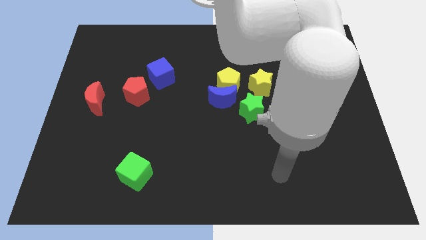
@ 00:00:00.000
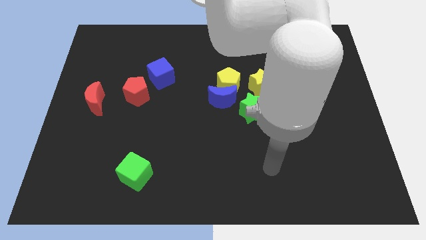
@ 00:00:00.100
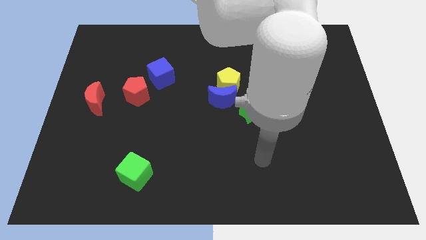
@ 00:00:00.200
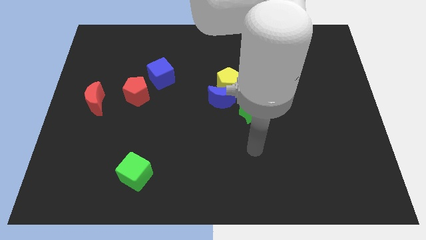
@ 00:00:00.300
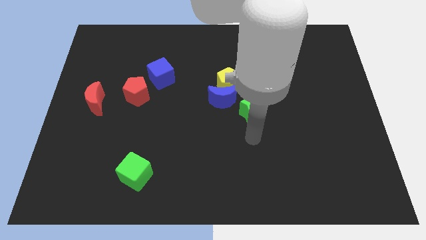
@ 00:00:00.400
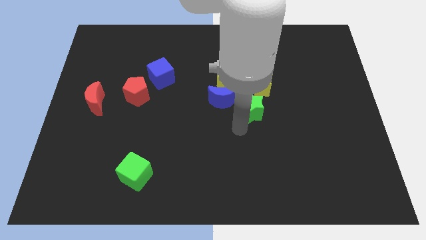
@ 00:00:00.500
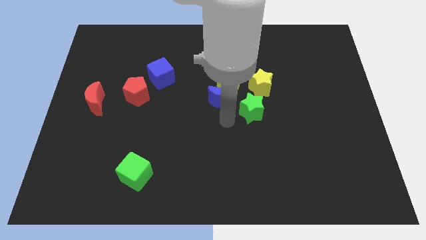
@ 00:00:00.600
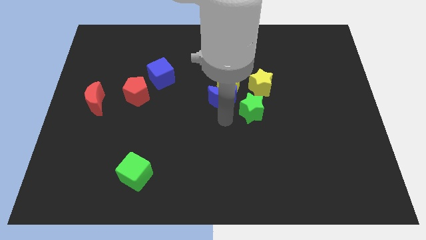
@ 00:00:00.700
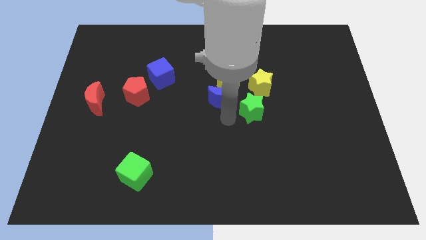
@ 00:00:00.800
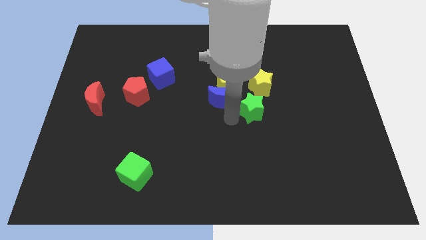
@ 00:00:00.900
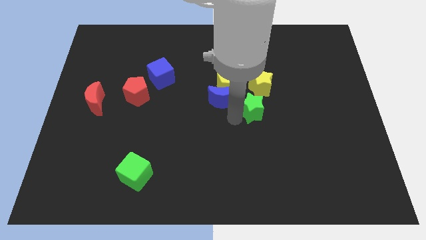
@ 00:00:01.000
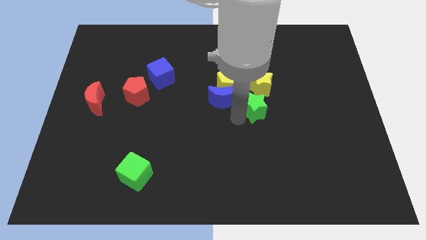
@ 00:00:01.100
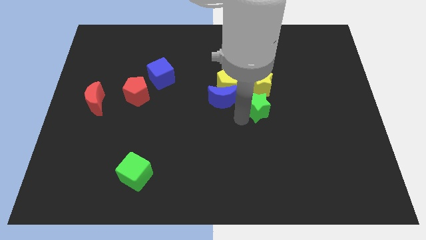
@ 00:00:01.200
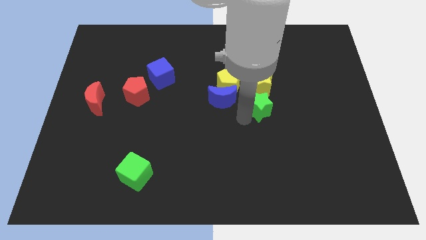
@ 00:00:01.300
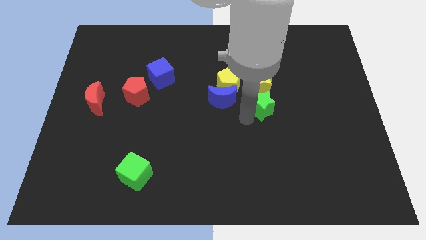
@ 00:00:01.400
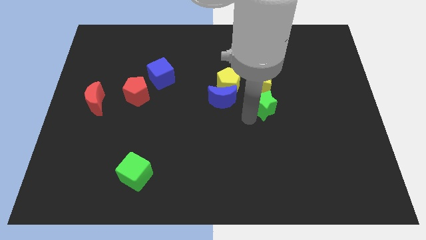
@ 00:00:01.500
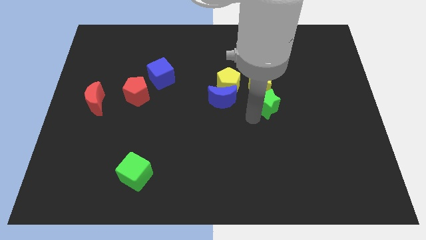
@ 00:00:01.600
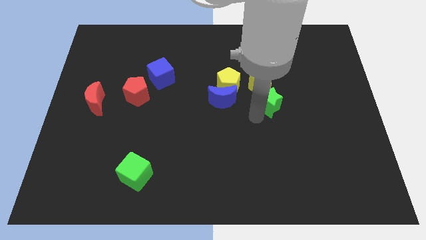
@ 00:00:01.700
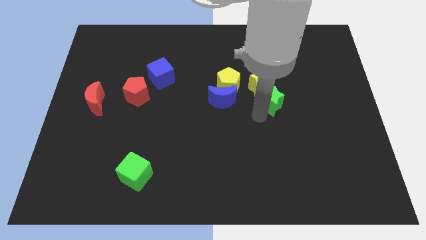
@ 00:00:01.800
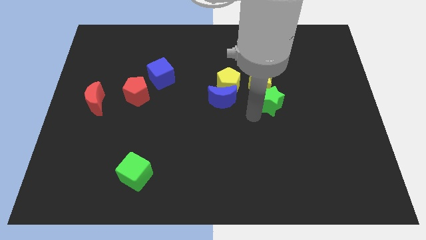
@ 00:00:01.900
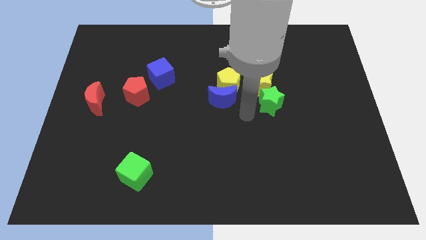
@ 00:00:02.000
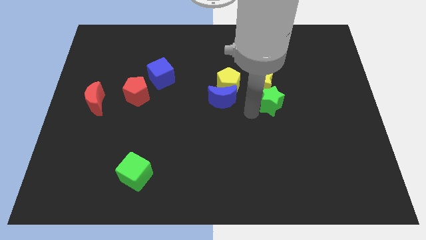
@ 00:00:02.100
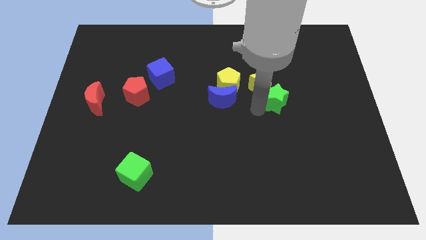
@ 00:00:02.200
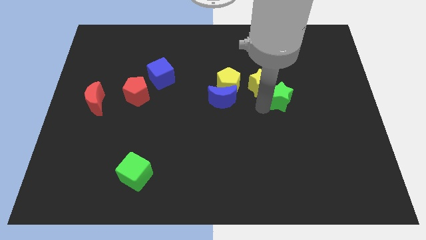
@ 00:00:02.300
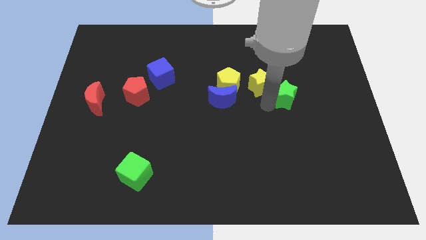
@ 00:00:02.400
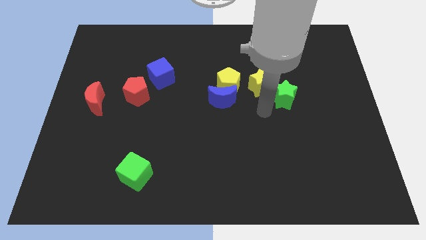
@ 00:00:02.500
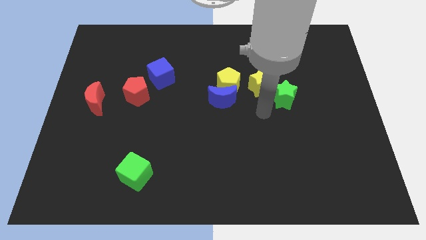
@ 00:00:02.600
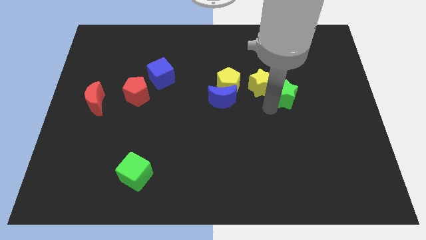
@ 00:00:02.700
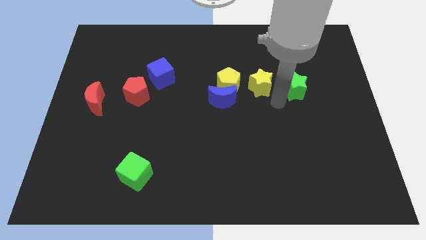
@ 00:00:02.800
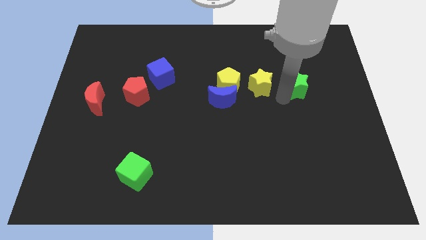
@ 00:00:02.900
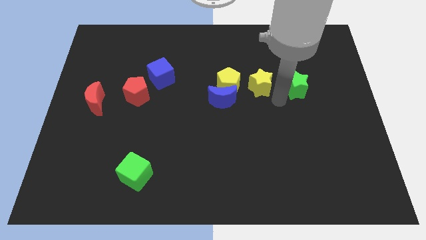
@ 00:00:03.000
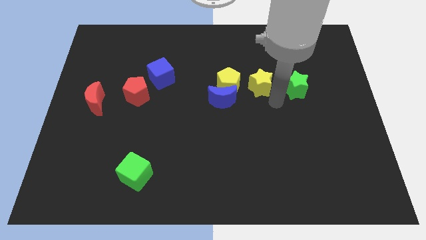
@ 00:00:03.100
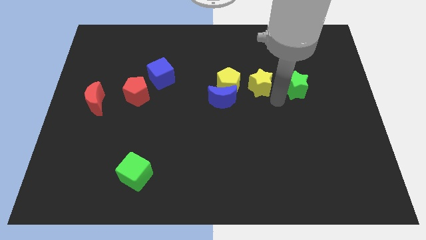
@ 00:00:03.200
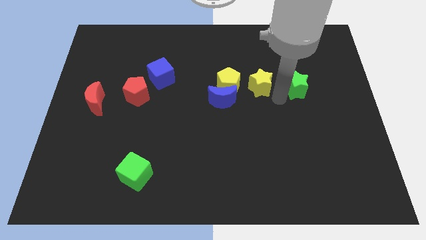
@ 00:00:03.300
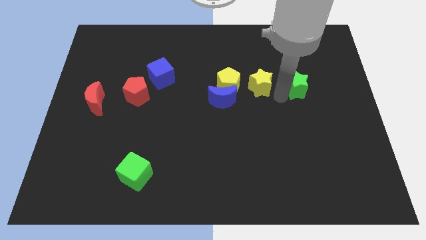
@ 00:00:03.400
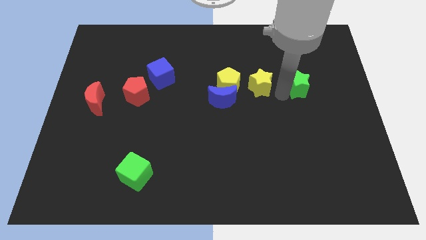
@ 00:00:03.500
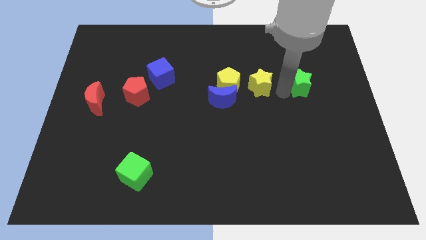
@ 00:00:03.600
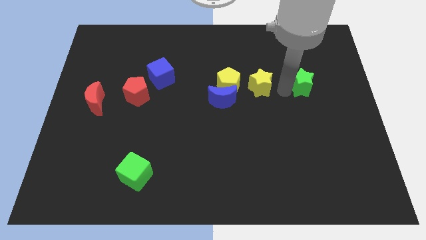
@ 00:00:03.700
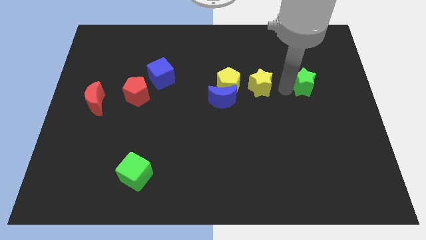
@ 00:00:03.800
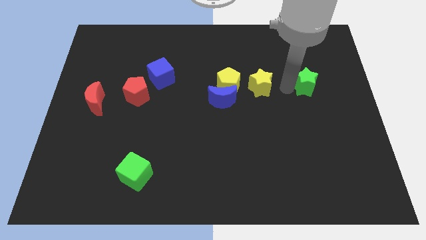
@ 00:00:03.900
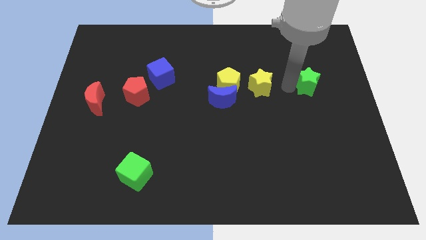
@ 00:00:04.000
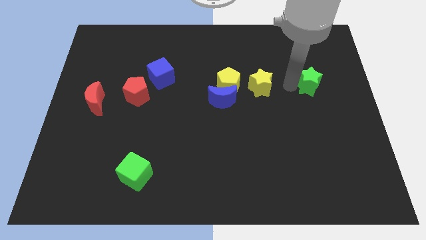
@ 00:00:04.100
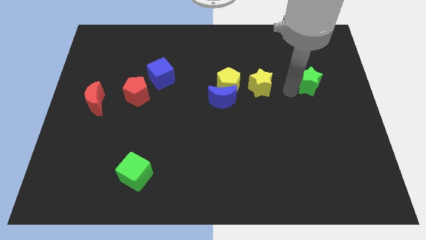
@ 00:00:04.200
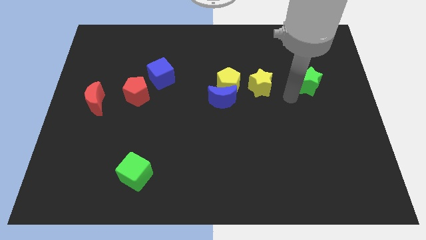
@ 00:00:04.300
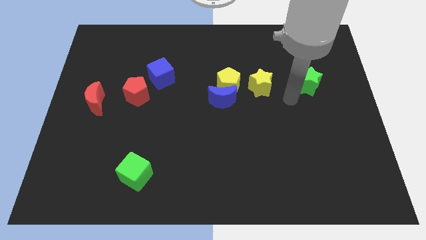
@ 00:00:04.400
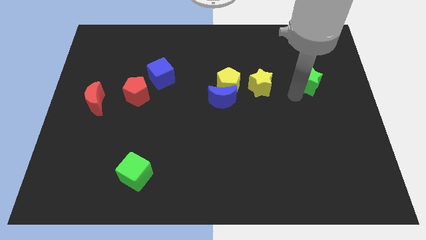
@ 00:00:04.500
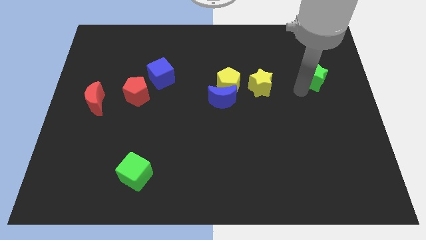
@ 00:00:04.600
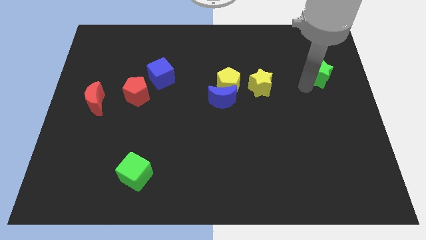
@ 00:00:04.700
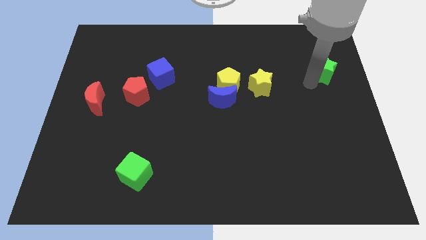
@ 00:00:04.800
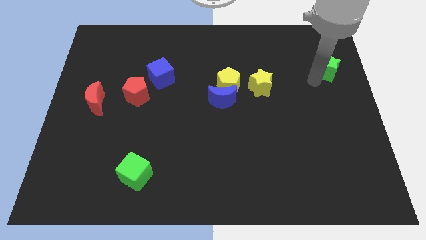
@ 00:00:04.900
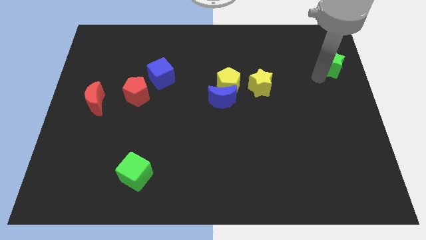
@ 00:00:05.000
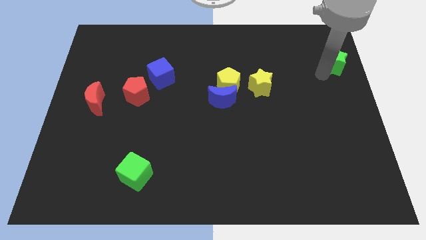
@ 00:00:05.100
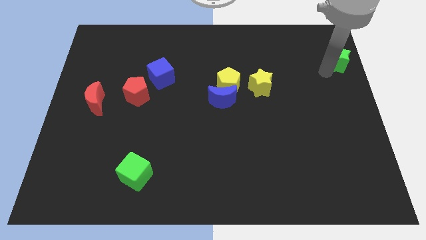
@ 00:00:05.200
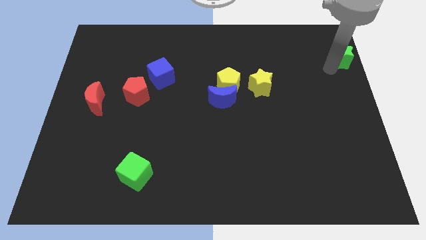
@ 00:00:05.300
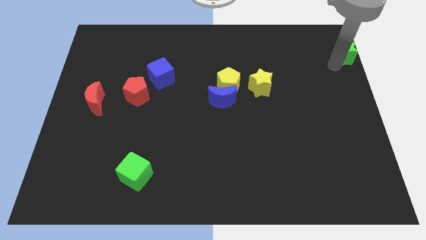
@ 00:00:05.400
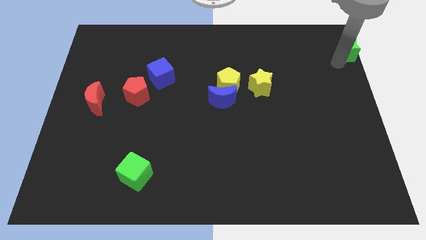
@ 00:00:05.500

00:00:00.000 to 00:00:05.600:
put the green star to the top right

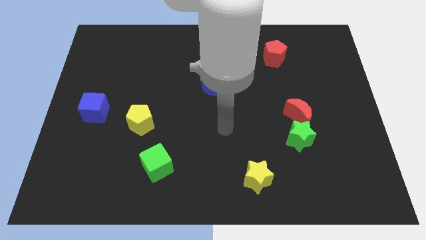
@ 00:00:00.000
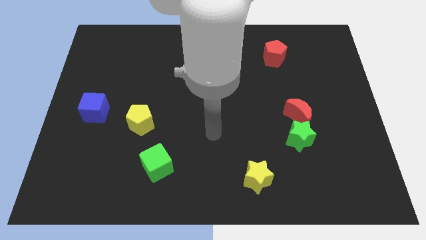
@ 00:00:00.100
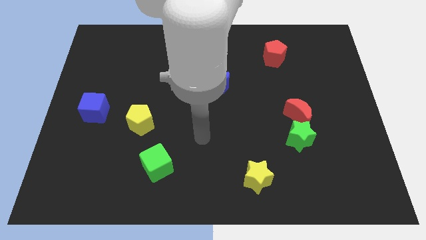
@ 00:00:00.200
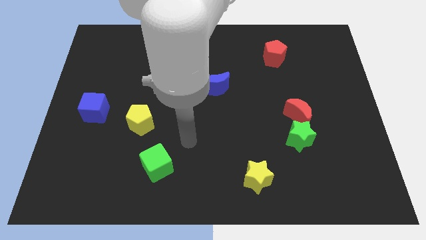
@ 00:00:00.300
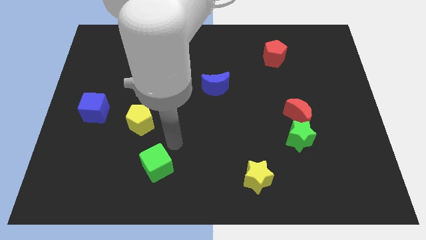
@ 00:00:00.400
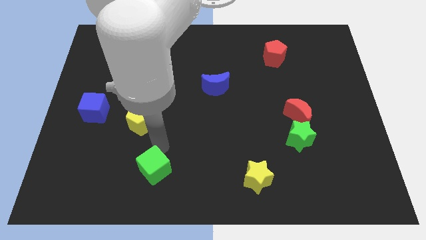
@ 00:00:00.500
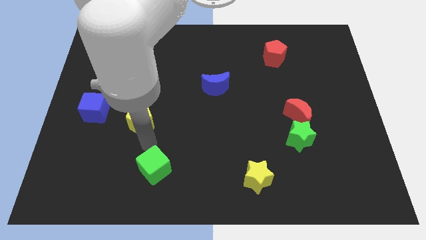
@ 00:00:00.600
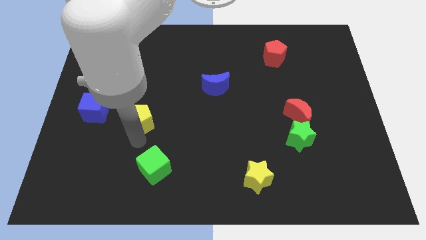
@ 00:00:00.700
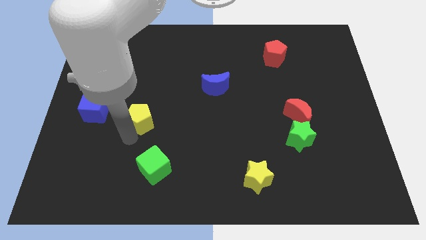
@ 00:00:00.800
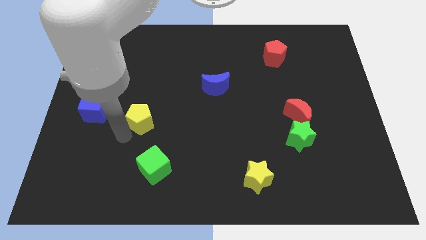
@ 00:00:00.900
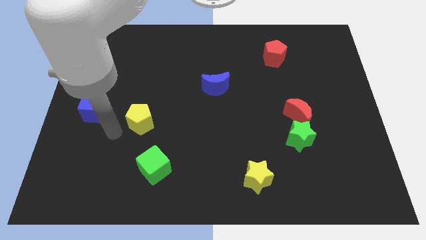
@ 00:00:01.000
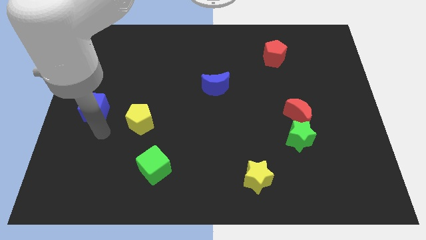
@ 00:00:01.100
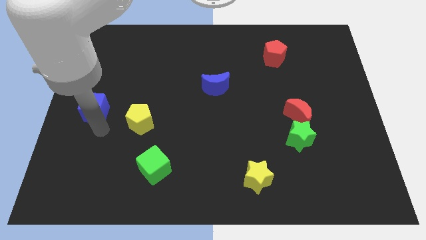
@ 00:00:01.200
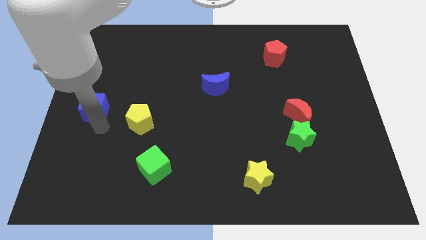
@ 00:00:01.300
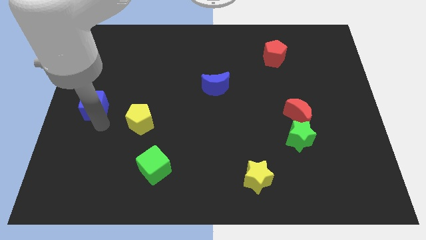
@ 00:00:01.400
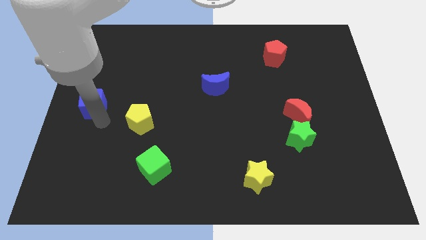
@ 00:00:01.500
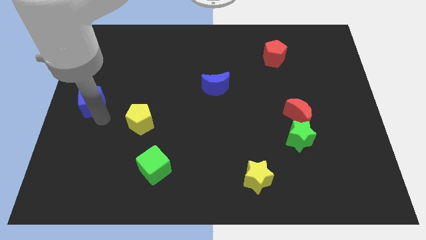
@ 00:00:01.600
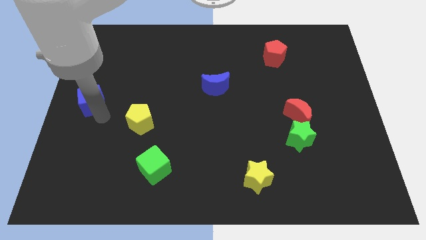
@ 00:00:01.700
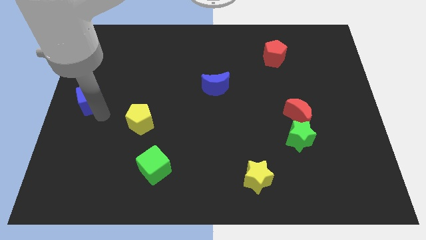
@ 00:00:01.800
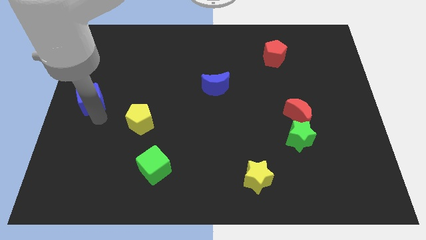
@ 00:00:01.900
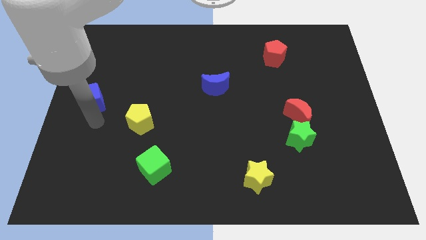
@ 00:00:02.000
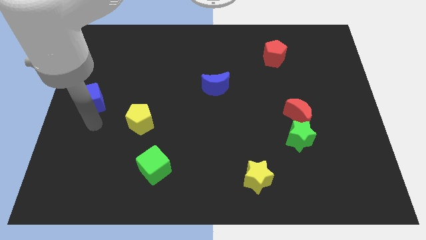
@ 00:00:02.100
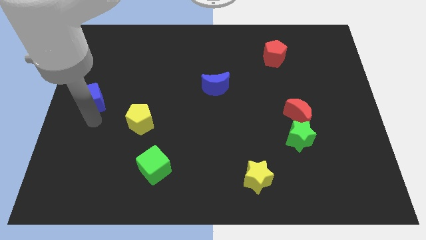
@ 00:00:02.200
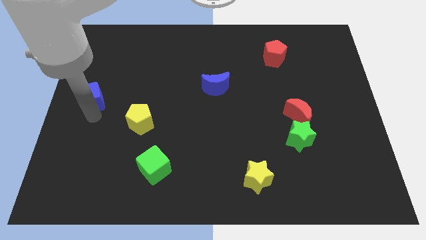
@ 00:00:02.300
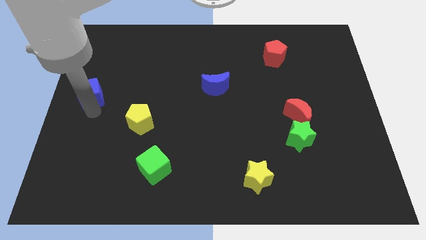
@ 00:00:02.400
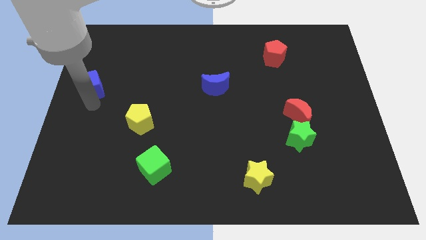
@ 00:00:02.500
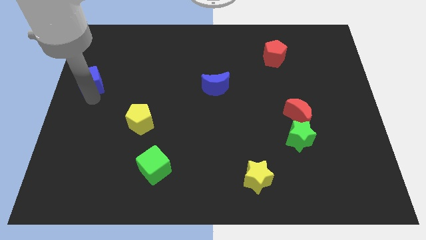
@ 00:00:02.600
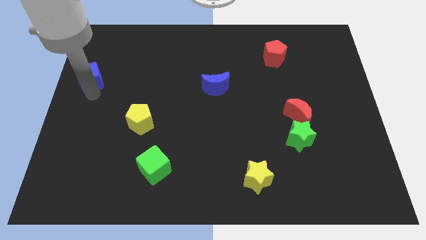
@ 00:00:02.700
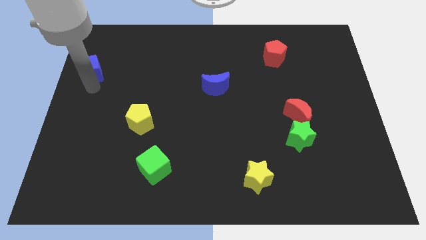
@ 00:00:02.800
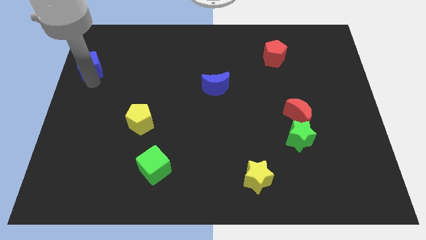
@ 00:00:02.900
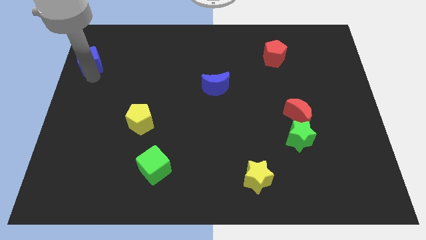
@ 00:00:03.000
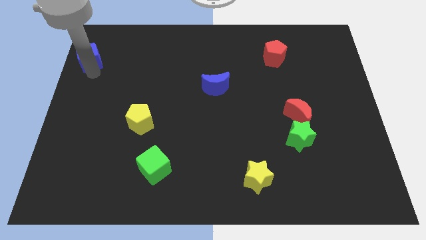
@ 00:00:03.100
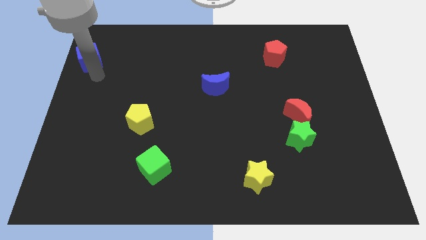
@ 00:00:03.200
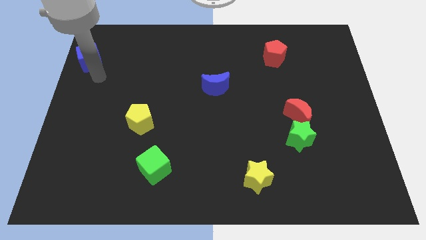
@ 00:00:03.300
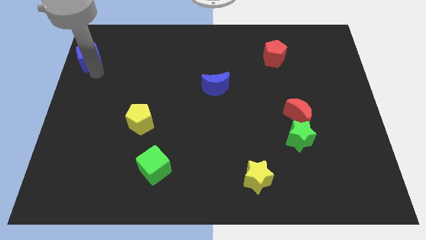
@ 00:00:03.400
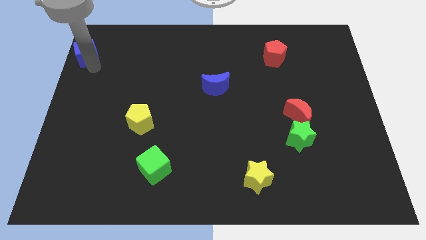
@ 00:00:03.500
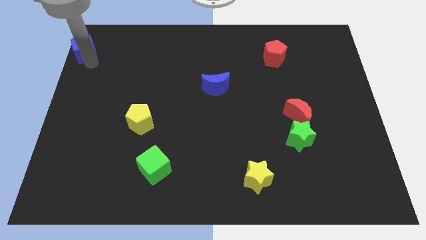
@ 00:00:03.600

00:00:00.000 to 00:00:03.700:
move the blue cube to the top left of the board
